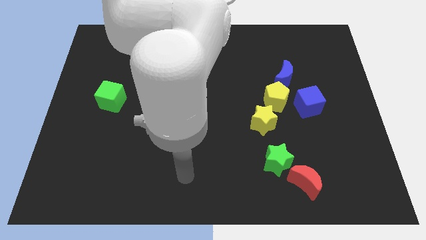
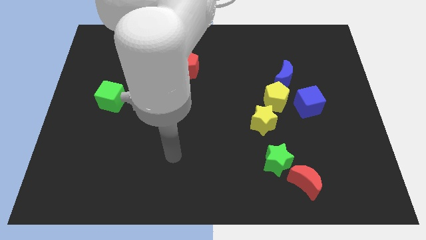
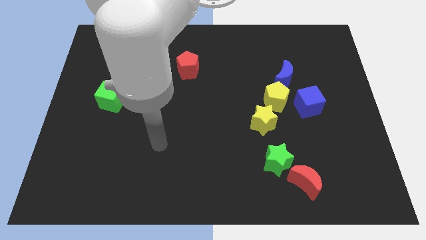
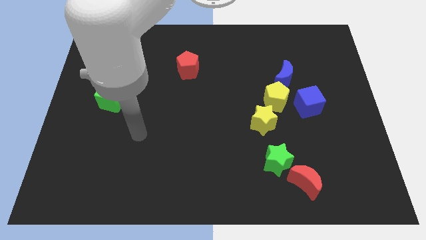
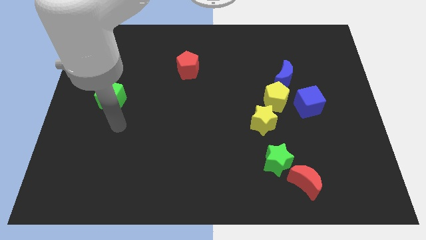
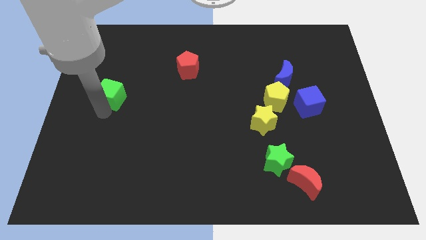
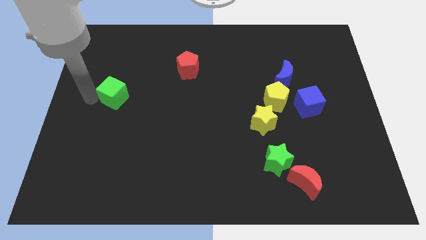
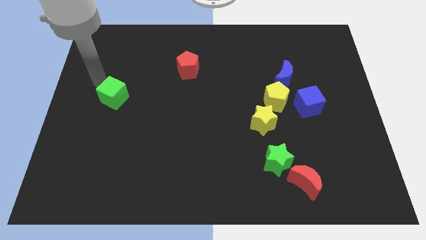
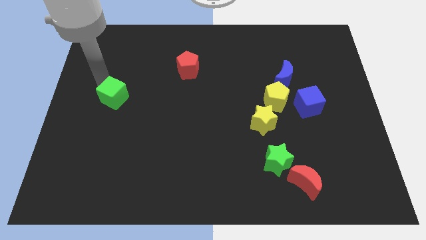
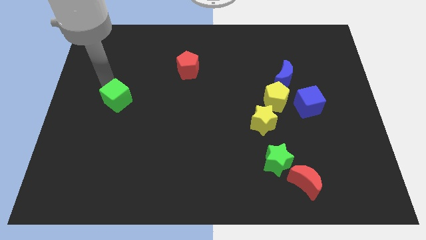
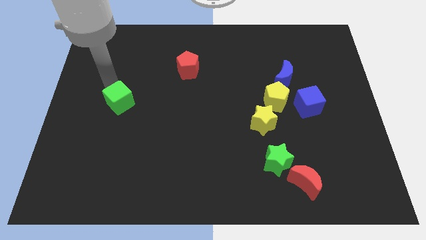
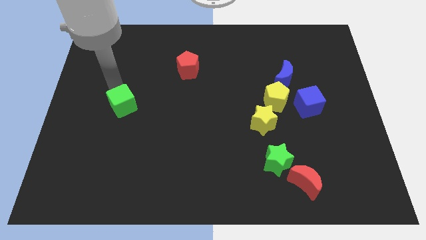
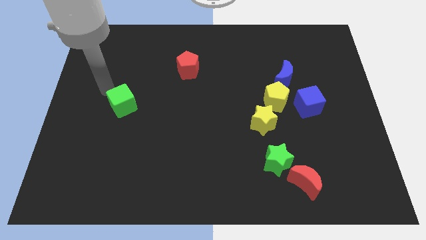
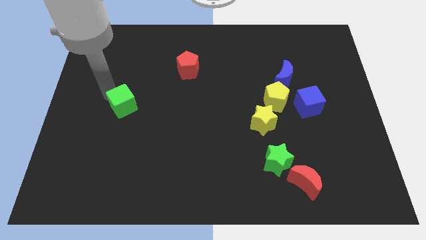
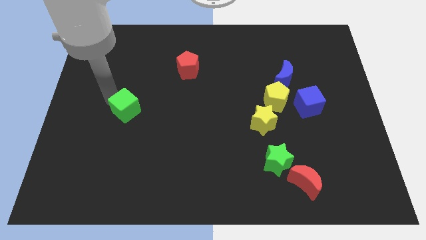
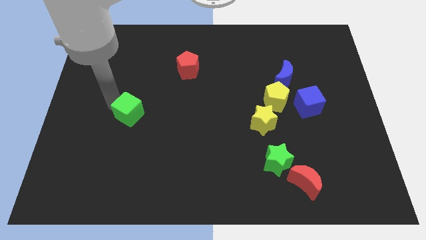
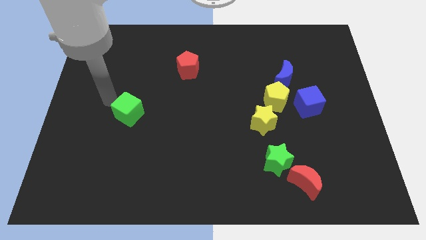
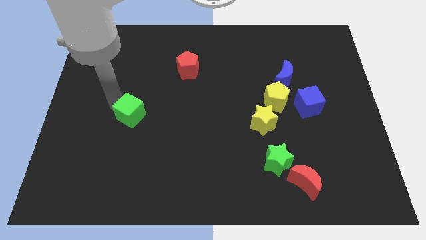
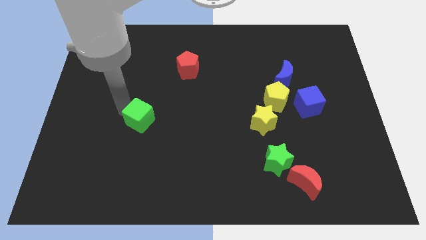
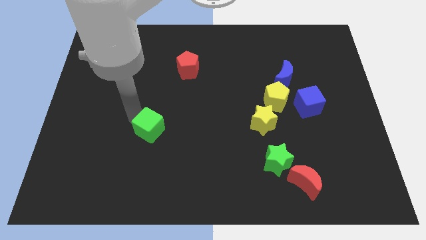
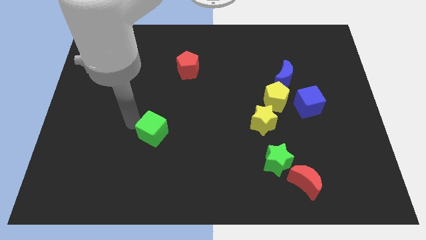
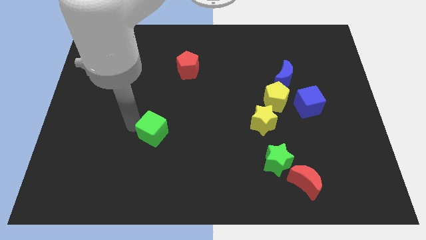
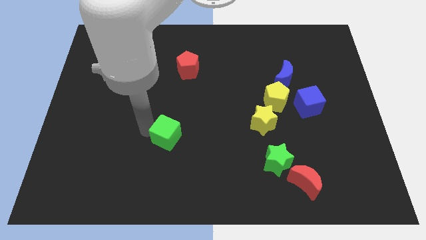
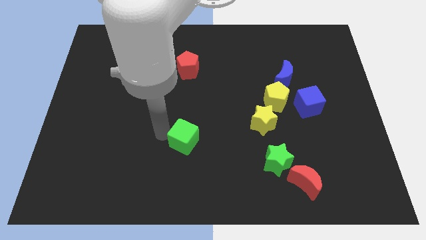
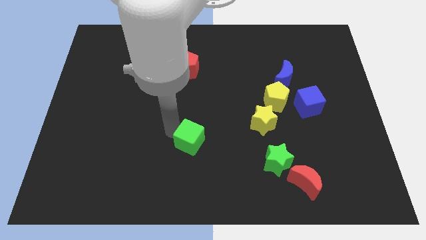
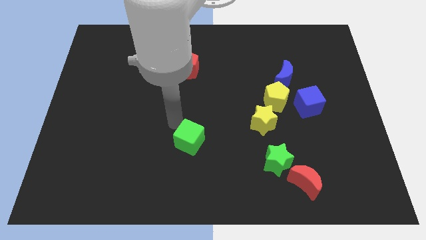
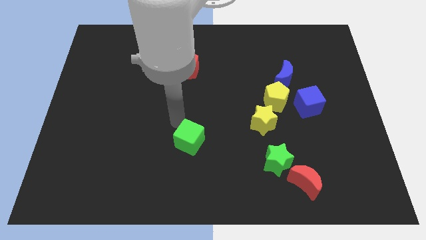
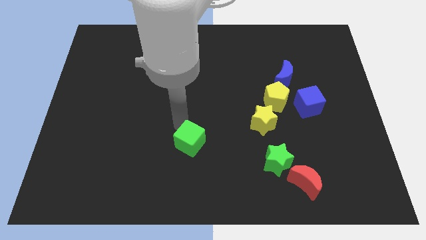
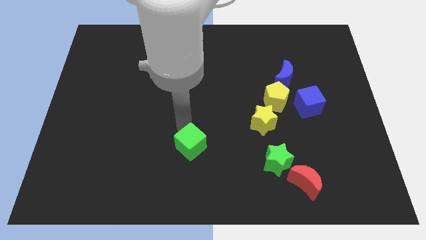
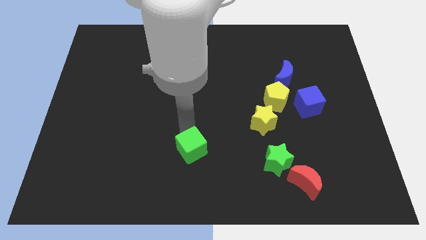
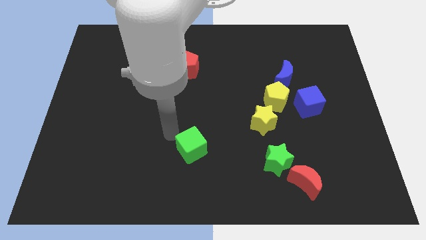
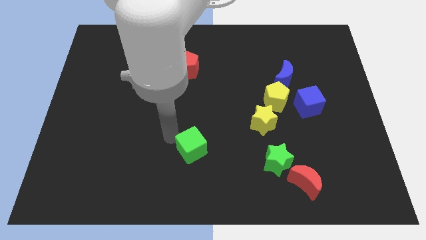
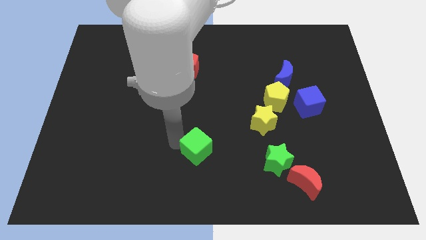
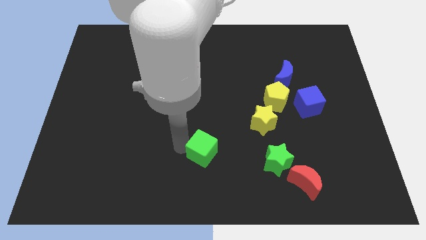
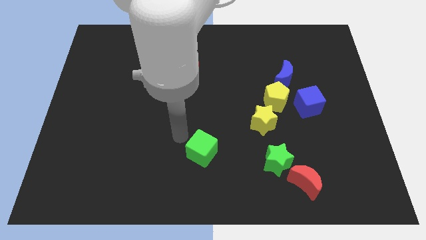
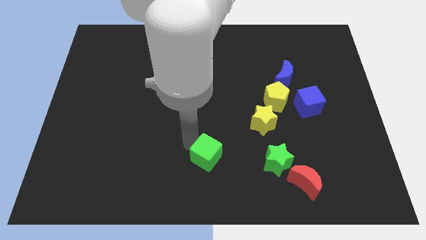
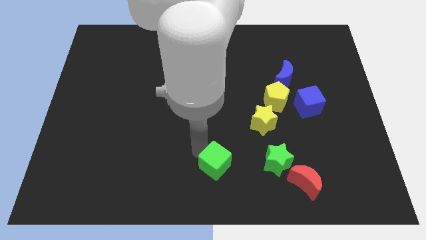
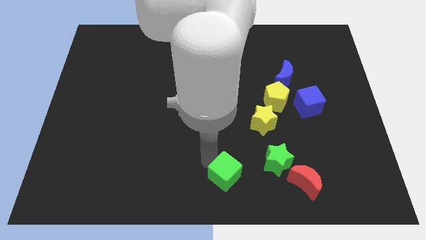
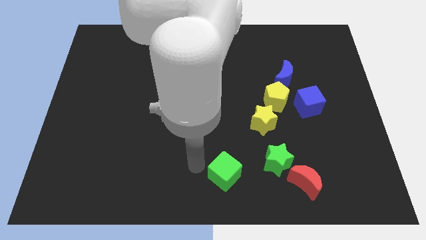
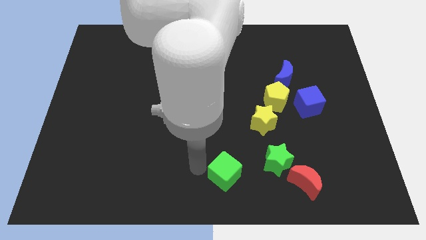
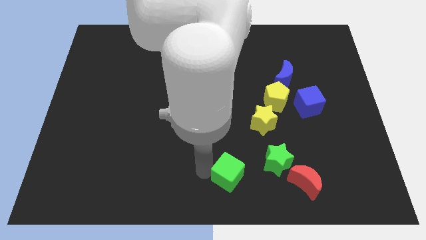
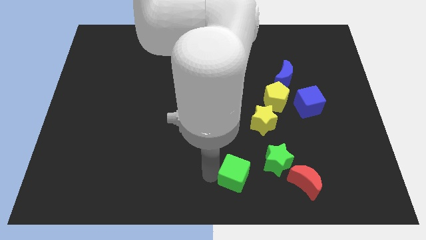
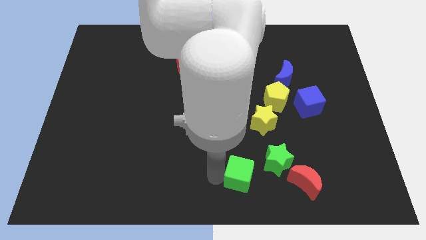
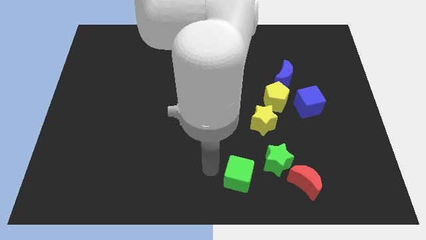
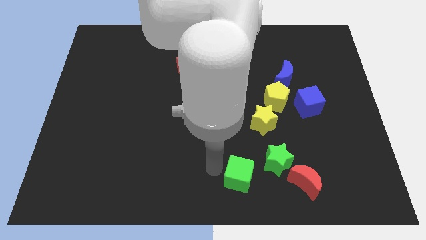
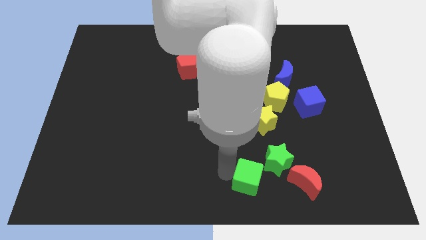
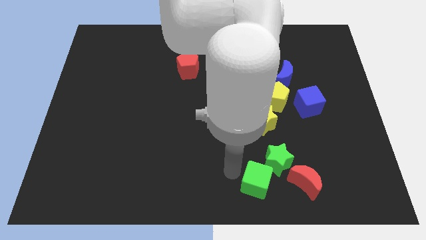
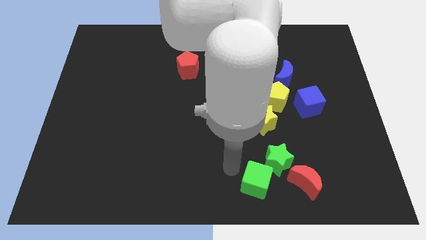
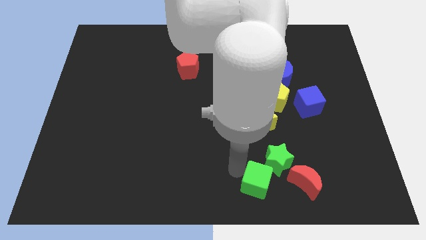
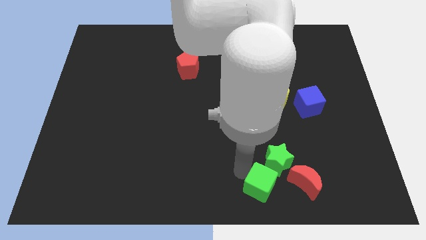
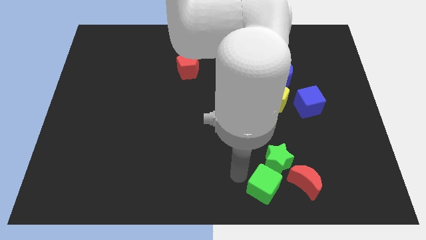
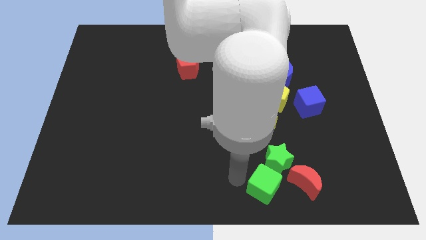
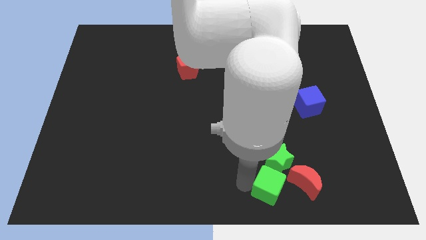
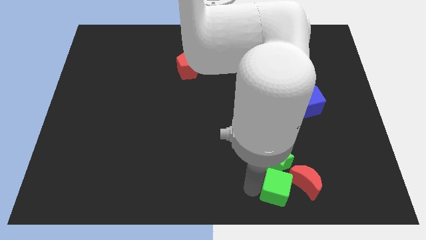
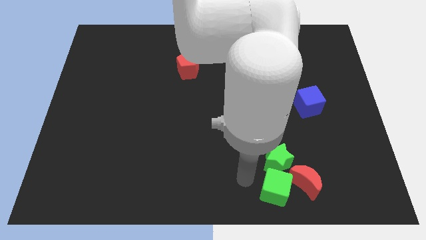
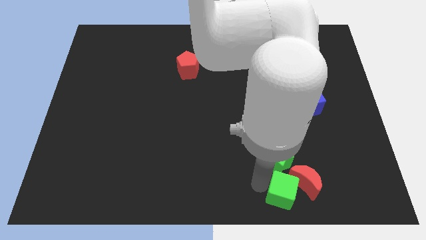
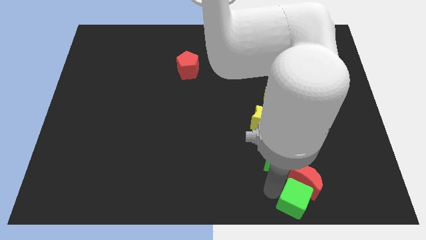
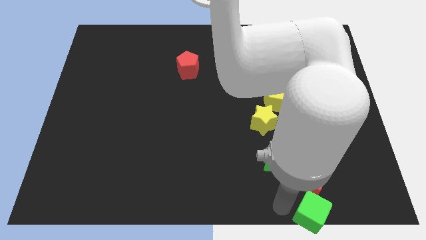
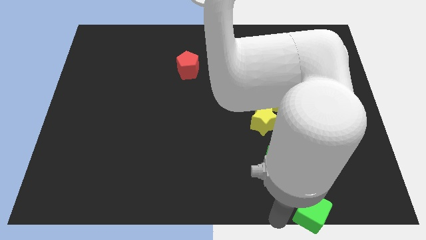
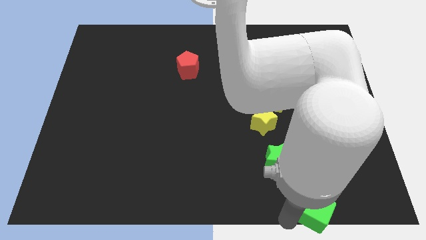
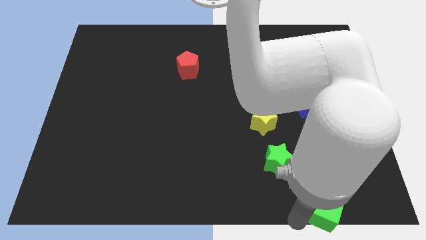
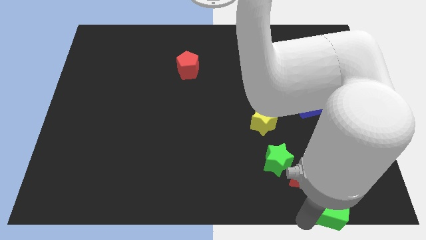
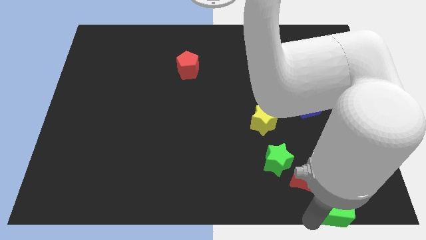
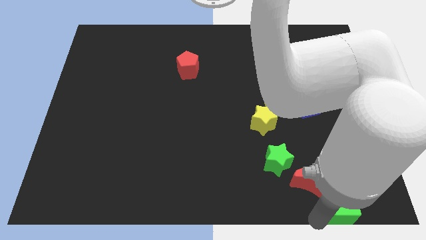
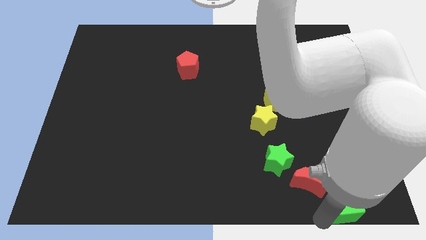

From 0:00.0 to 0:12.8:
move the green cube to the bottom right of the board
